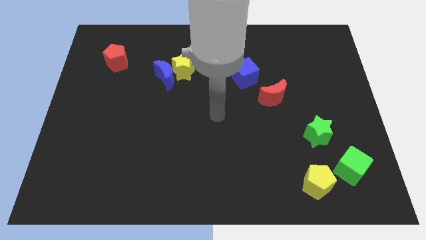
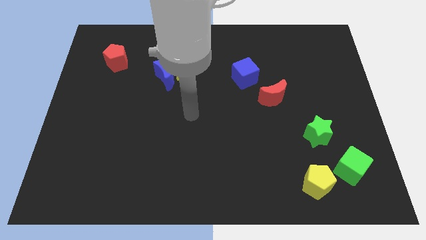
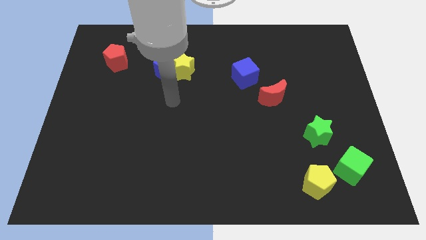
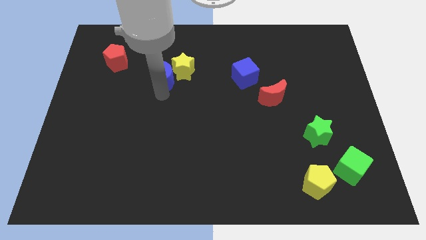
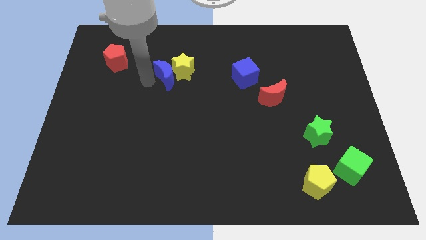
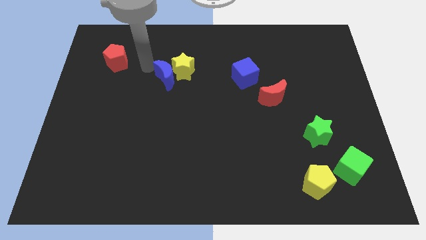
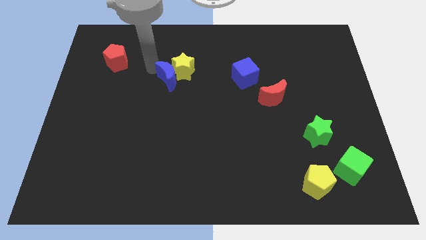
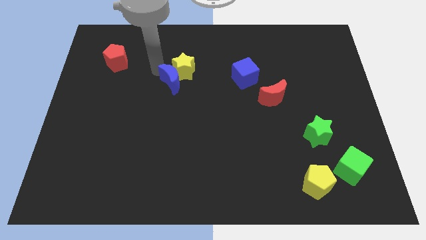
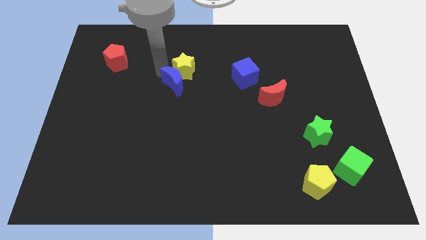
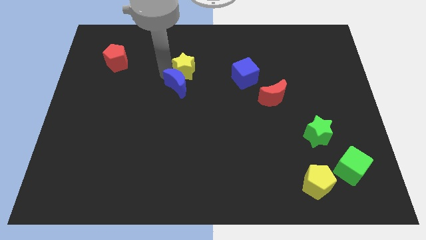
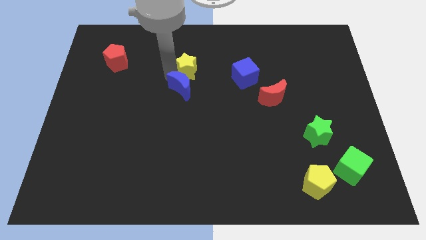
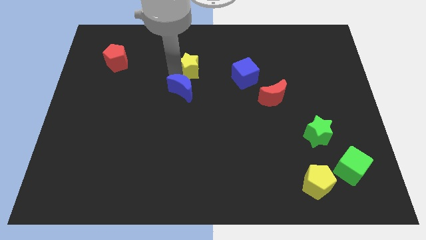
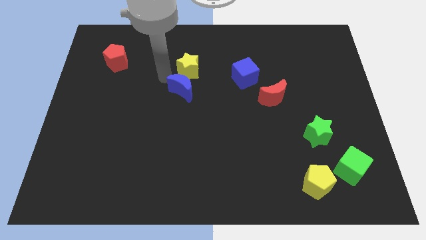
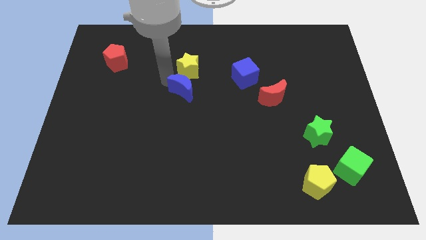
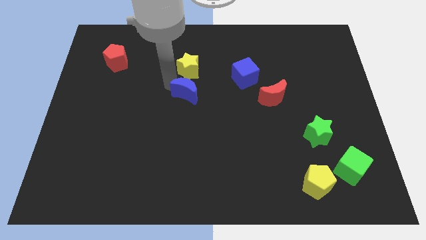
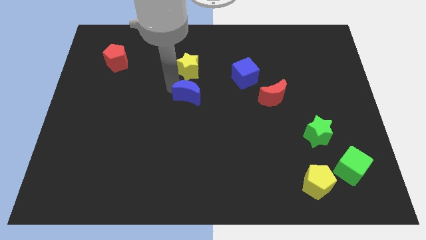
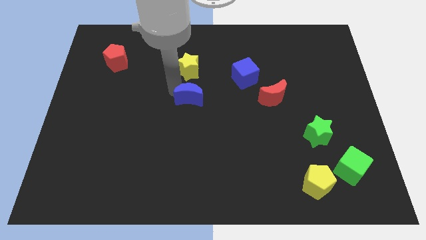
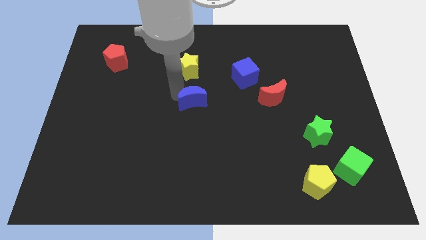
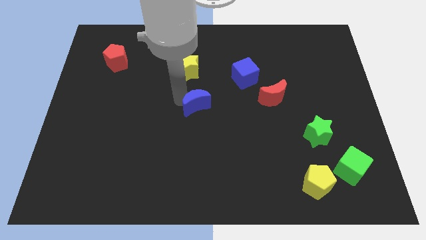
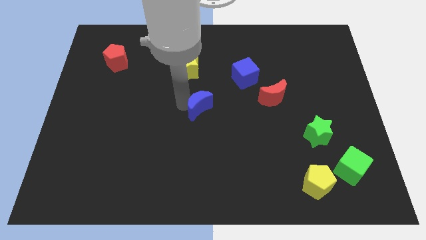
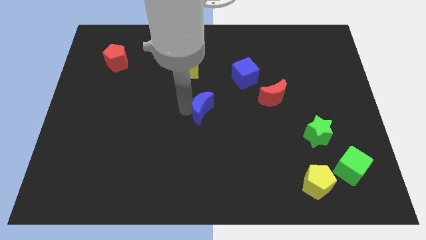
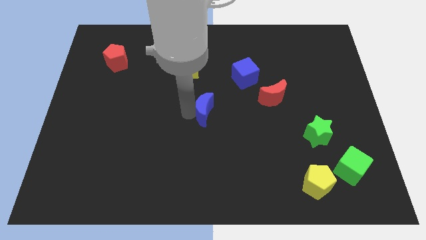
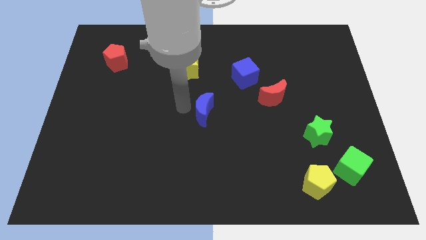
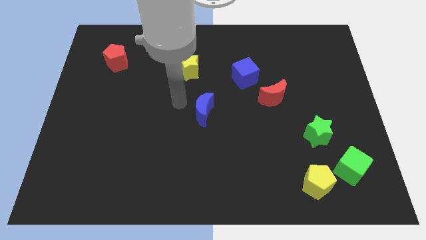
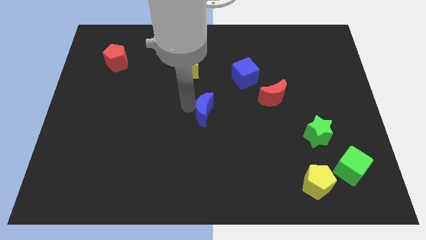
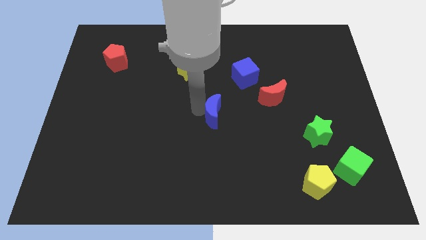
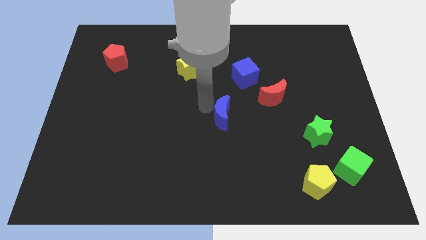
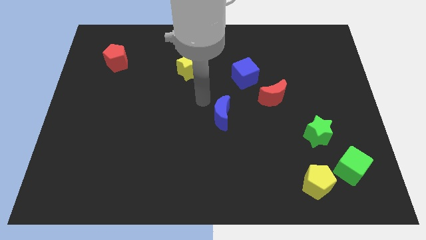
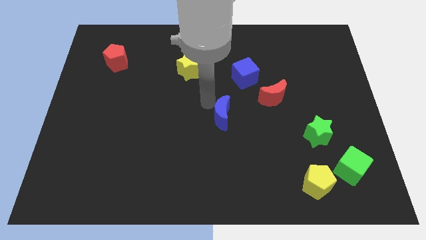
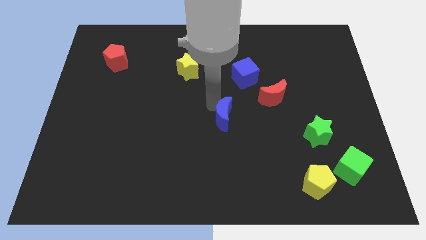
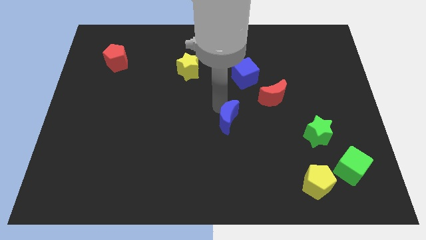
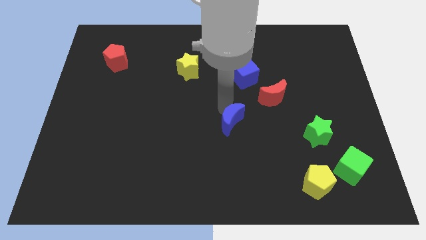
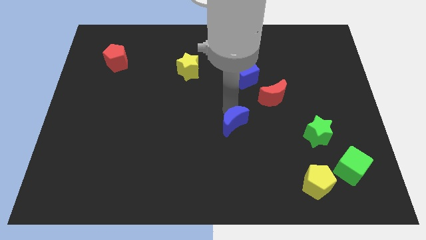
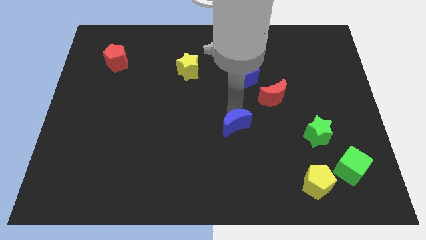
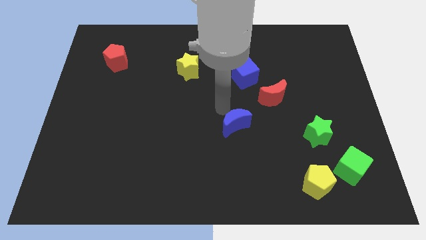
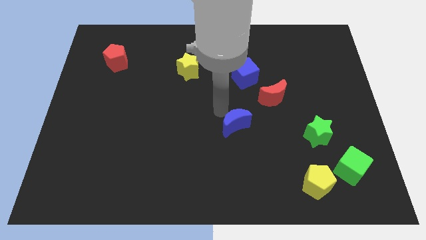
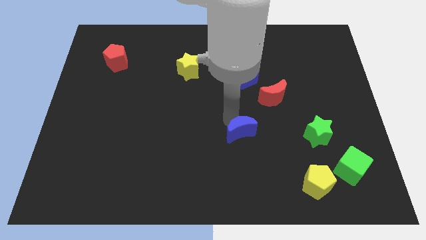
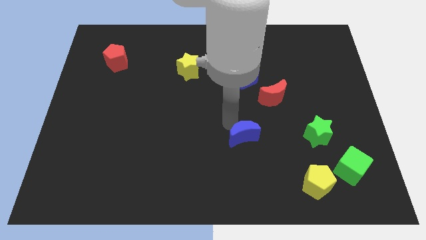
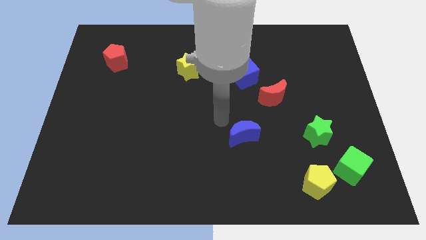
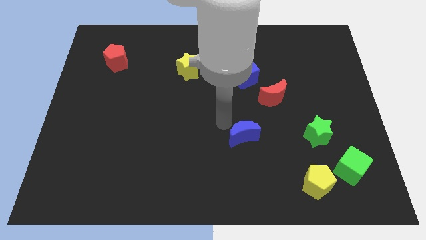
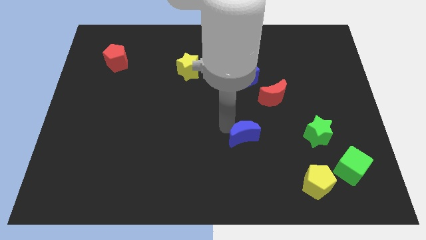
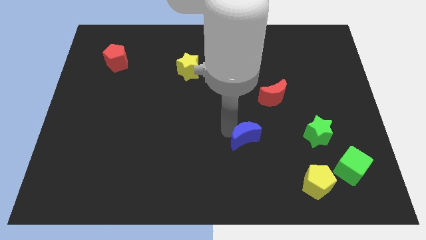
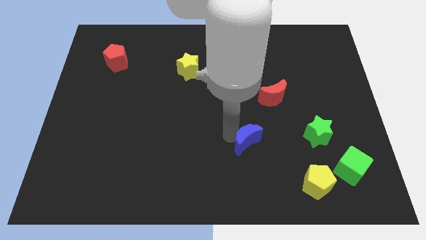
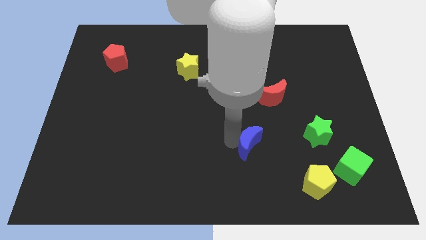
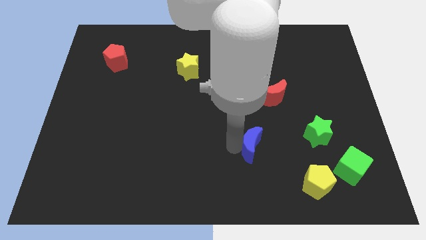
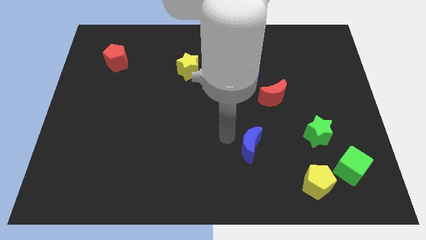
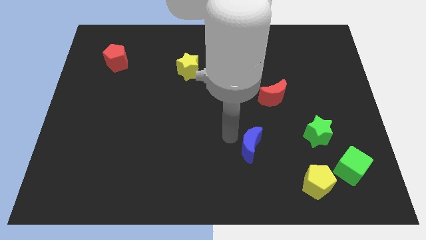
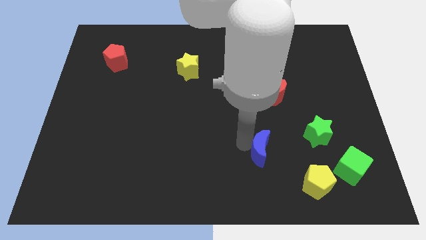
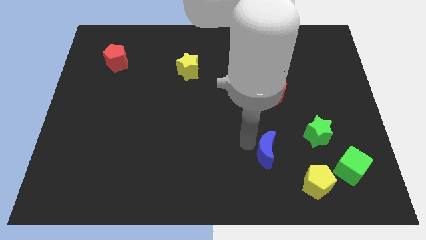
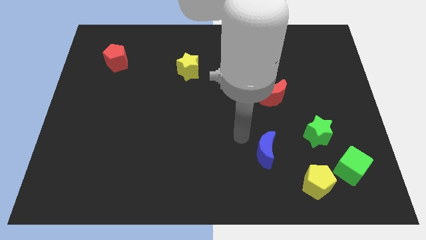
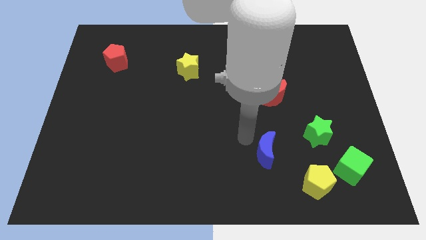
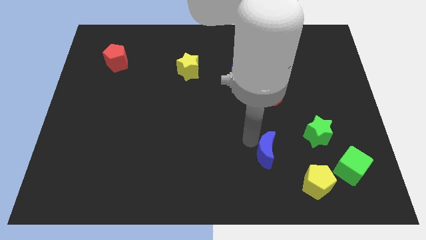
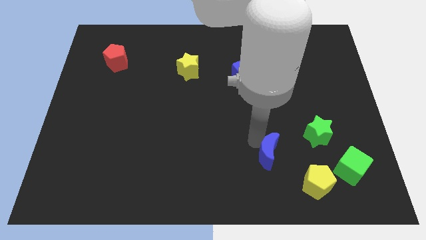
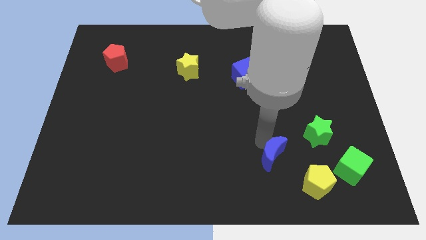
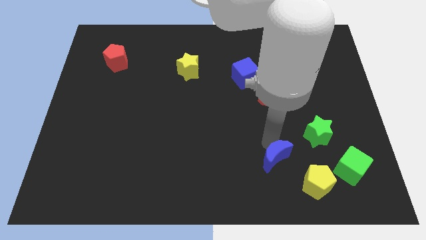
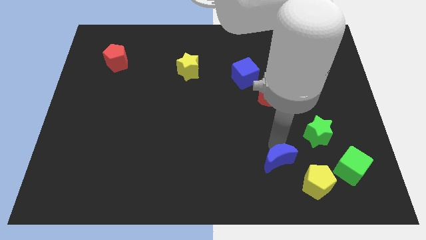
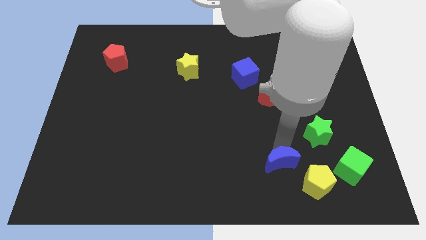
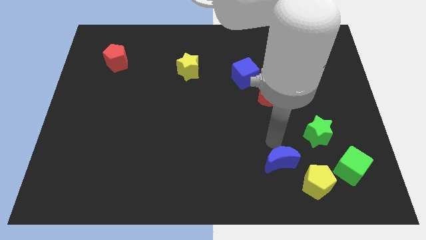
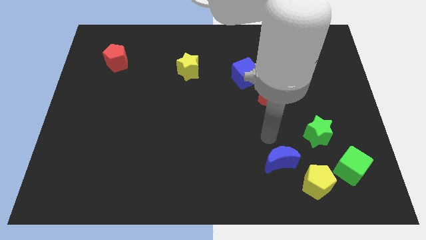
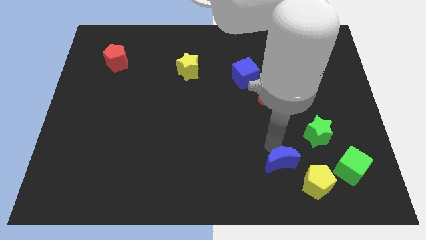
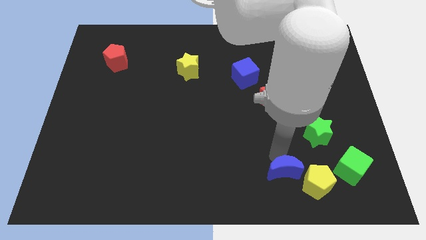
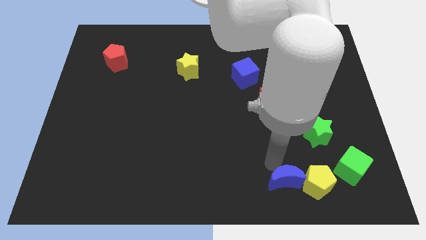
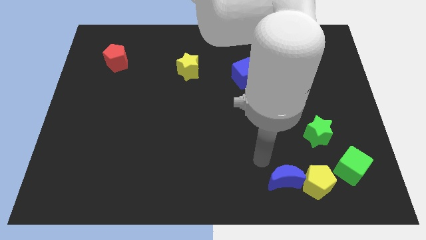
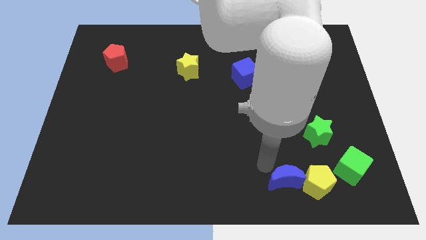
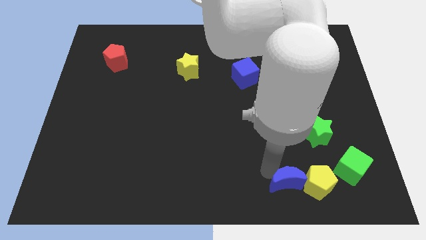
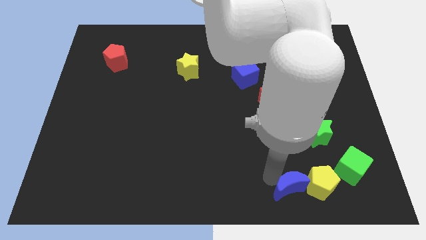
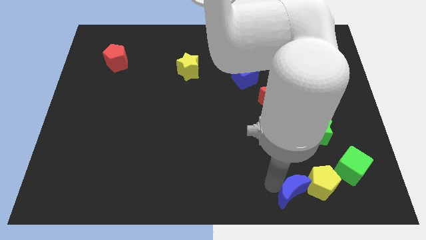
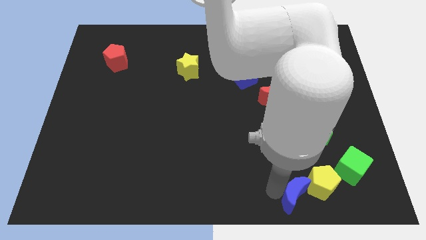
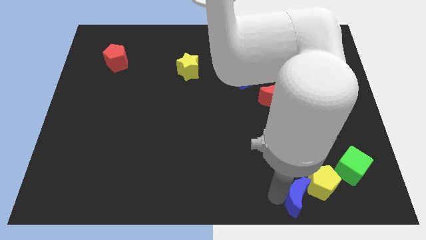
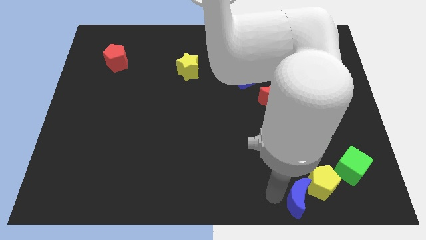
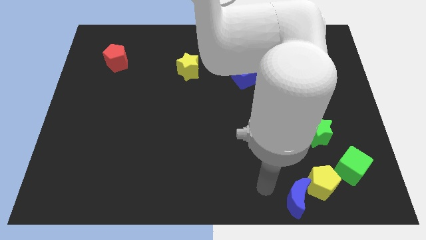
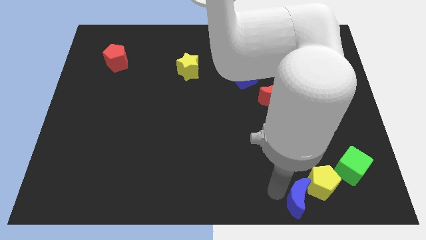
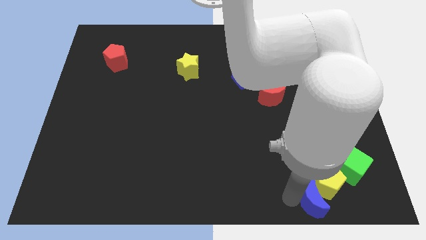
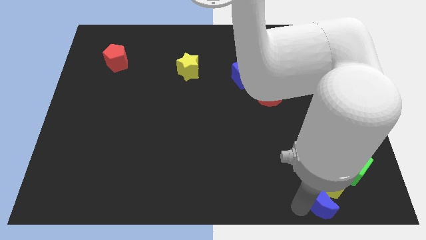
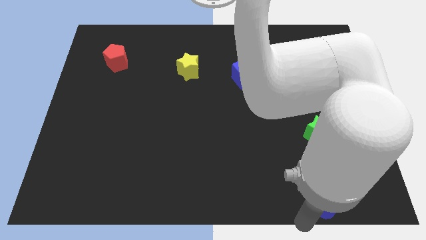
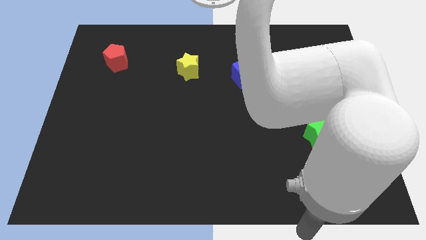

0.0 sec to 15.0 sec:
push the blue moon to the bottom of the green star

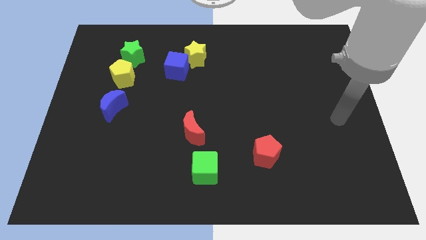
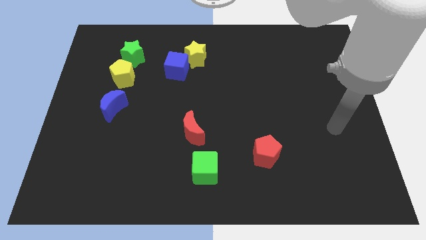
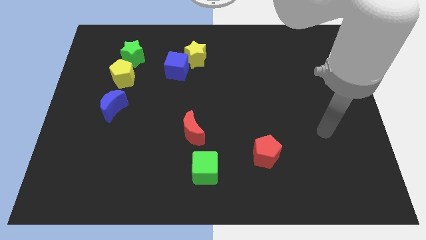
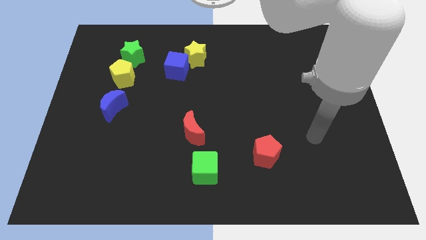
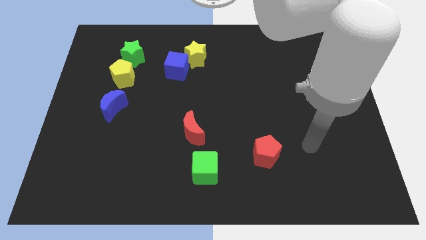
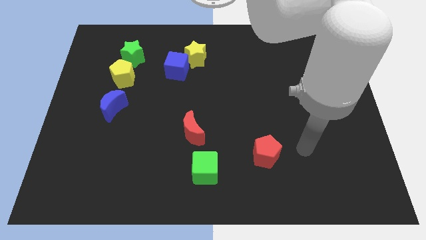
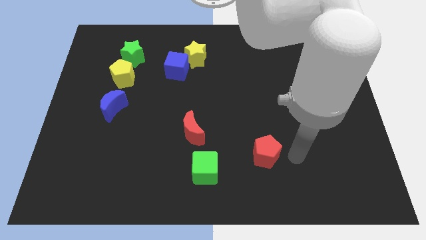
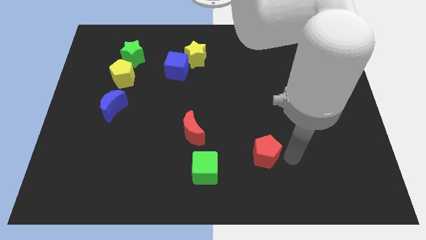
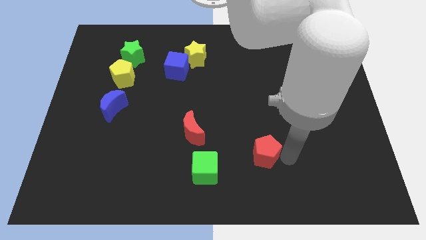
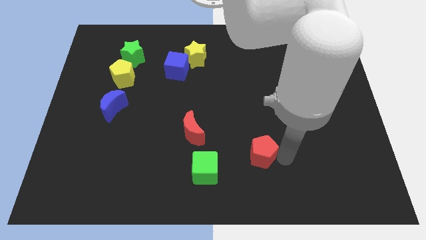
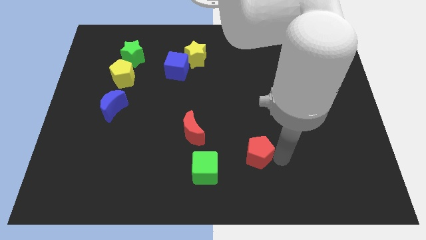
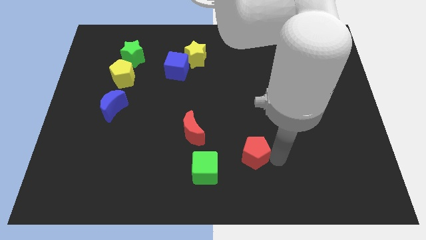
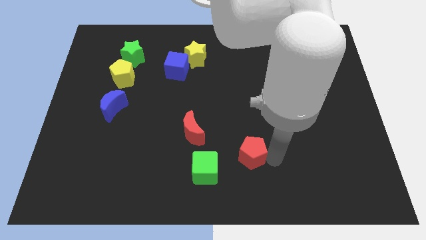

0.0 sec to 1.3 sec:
push the red pentagon diagonally up and to the right of the green cube
